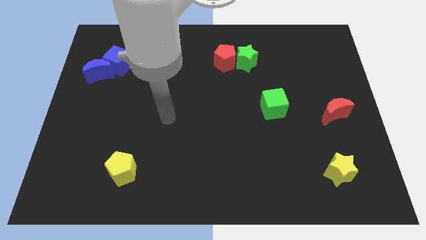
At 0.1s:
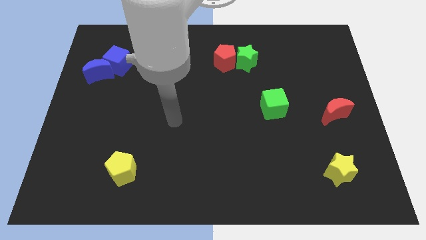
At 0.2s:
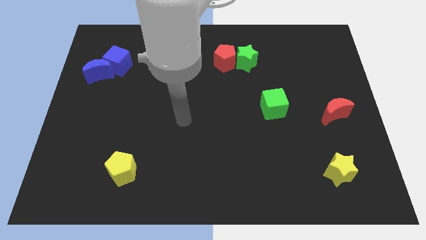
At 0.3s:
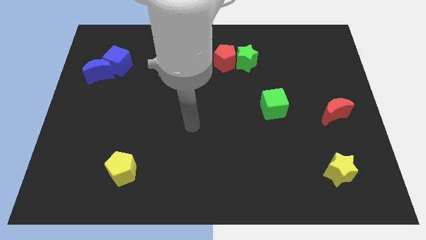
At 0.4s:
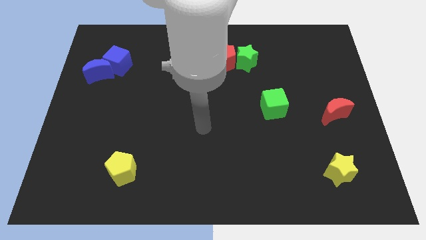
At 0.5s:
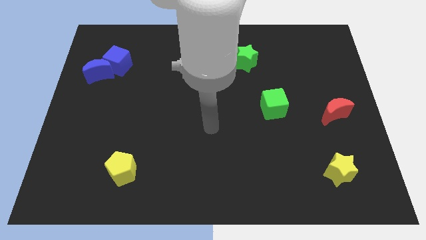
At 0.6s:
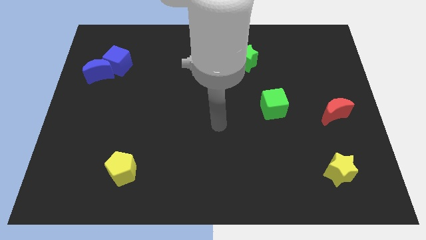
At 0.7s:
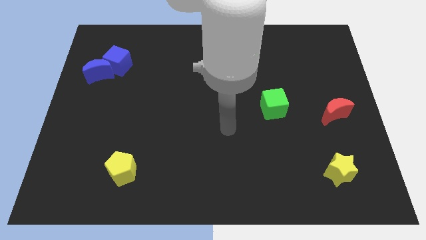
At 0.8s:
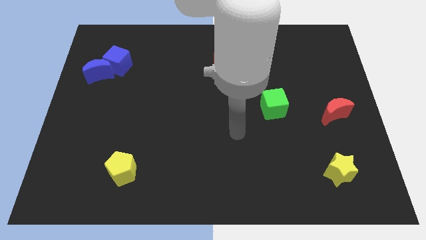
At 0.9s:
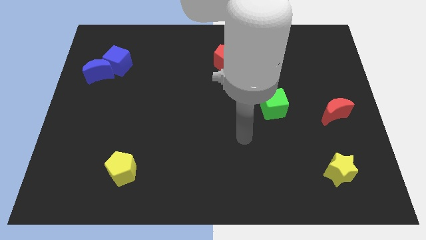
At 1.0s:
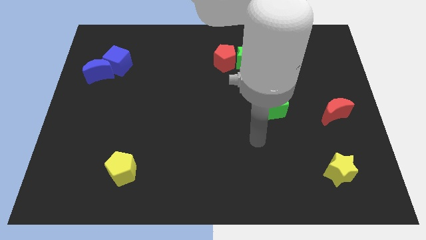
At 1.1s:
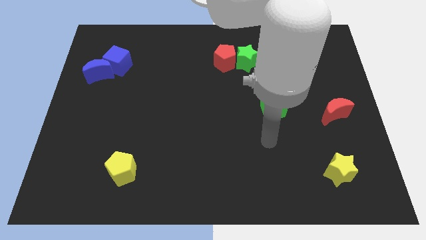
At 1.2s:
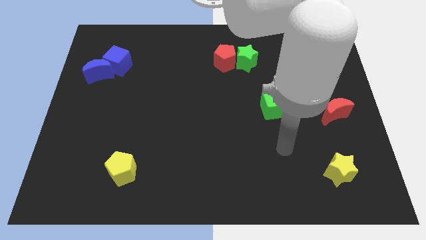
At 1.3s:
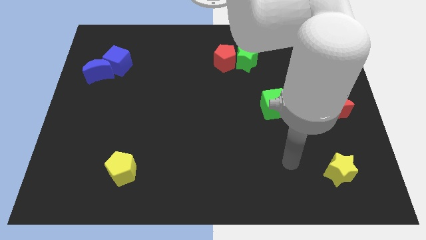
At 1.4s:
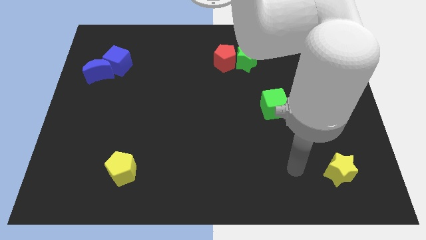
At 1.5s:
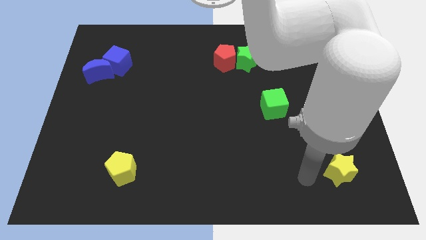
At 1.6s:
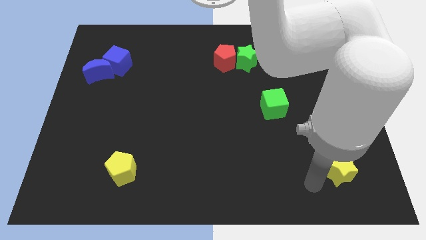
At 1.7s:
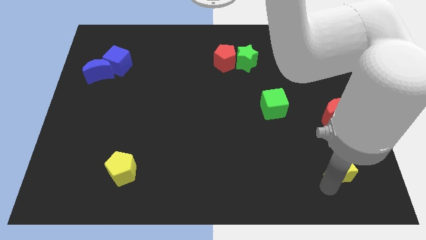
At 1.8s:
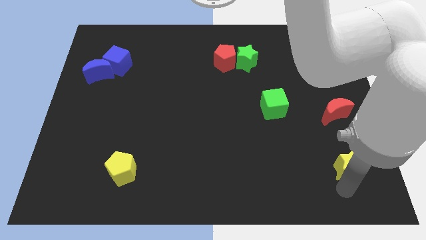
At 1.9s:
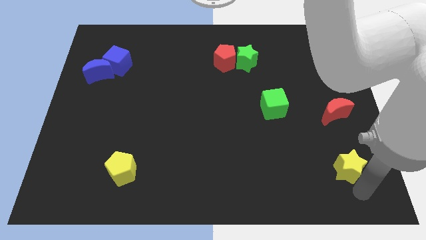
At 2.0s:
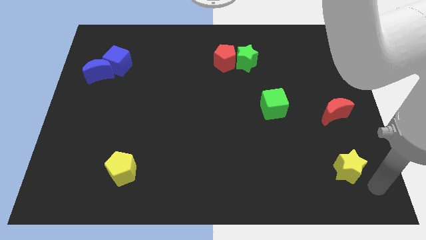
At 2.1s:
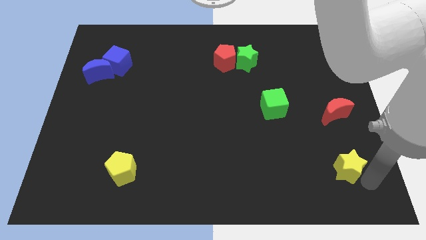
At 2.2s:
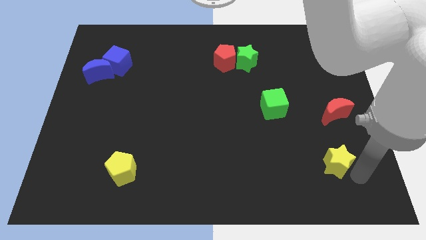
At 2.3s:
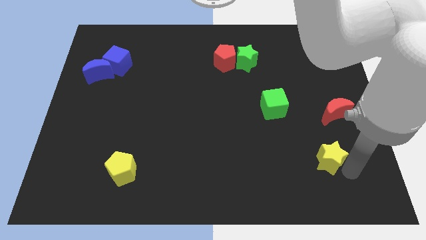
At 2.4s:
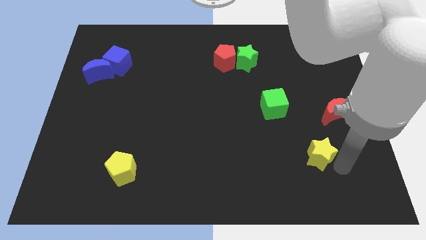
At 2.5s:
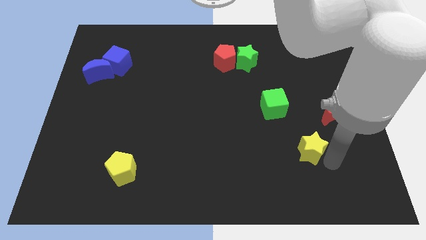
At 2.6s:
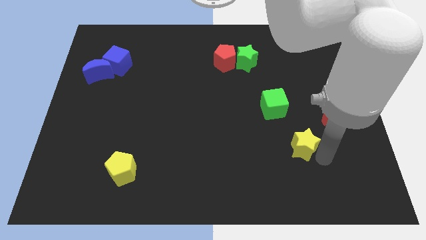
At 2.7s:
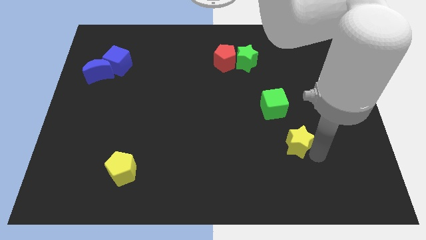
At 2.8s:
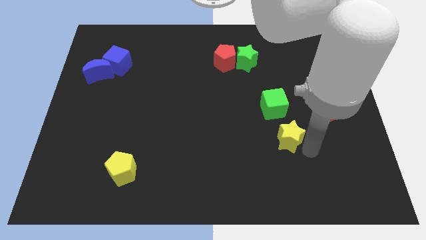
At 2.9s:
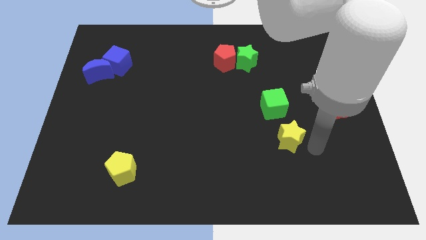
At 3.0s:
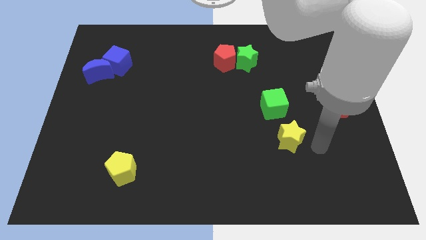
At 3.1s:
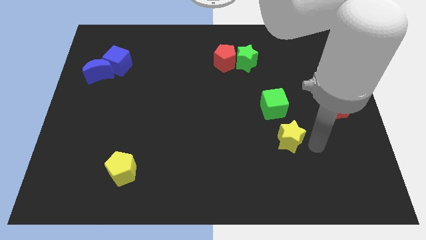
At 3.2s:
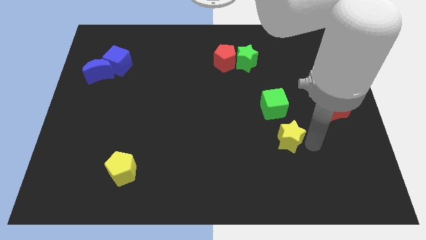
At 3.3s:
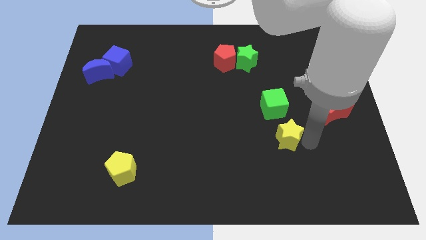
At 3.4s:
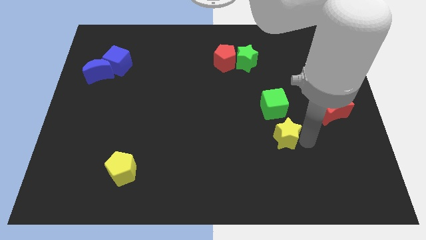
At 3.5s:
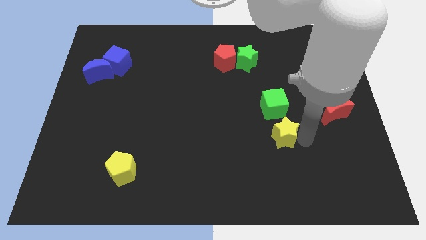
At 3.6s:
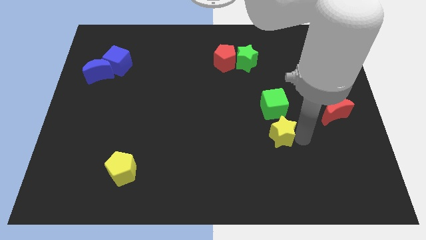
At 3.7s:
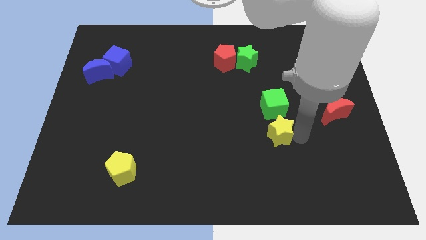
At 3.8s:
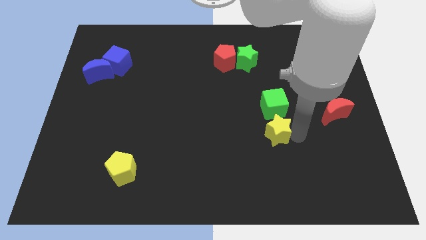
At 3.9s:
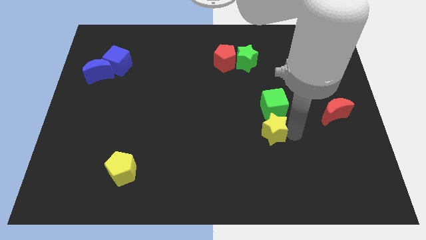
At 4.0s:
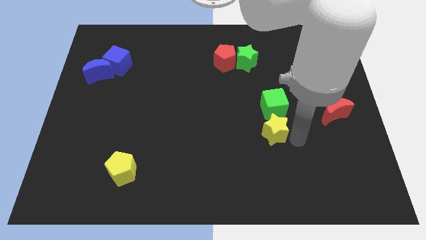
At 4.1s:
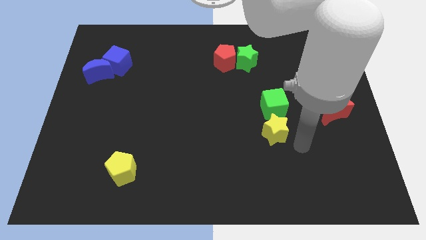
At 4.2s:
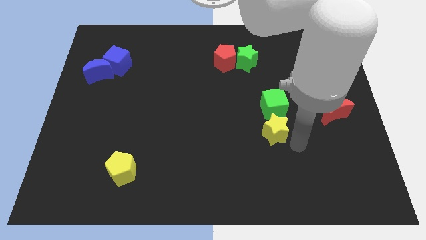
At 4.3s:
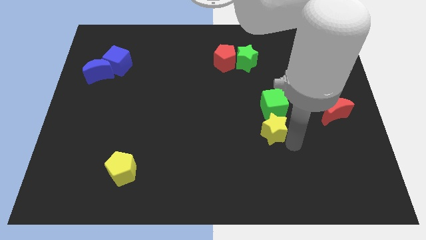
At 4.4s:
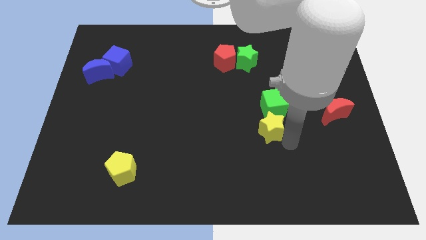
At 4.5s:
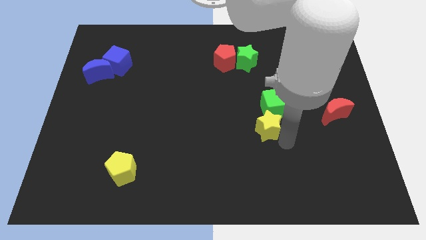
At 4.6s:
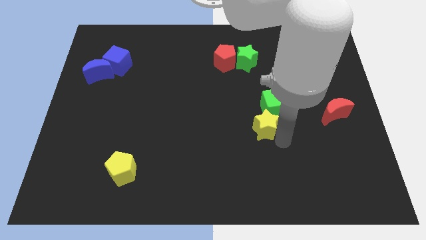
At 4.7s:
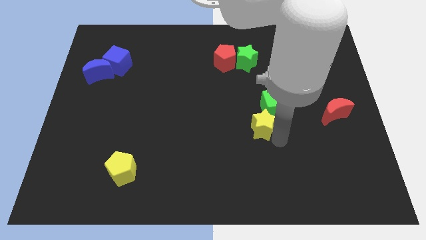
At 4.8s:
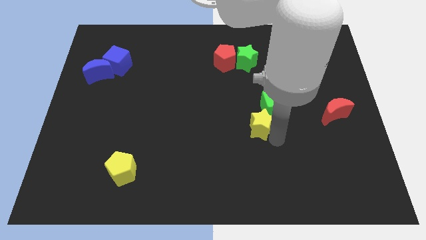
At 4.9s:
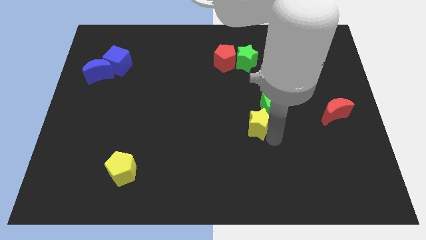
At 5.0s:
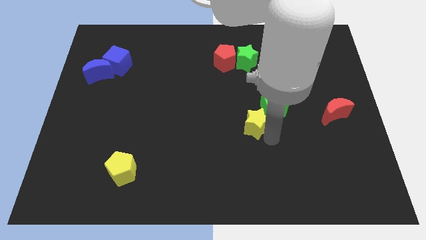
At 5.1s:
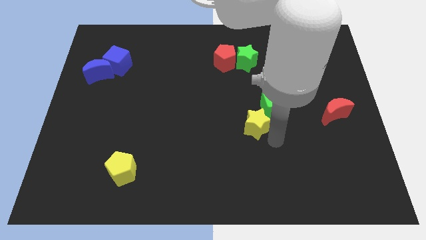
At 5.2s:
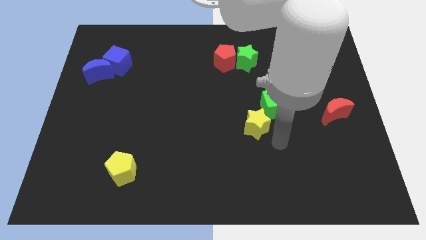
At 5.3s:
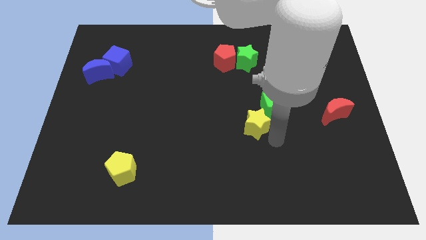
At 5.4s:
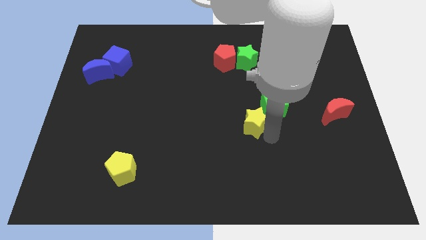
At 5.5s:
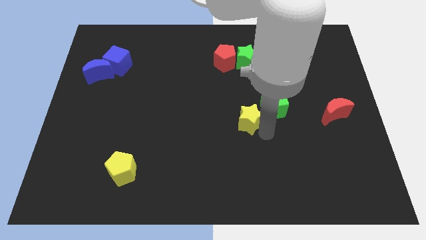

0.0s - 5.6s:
slide the yellow star upwards and then to the left

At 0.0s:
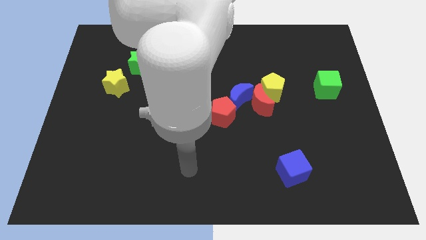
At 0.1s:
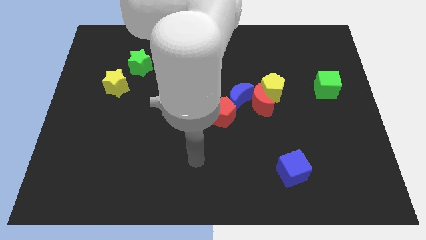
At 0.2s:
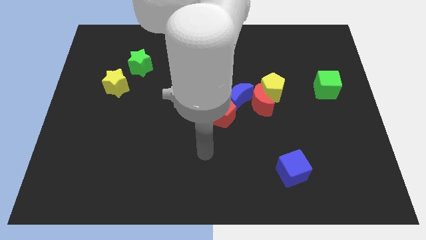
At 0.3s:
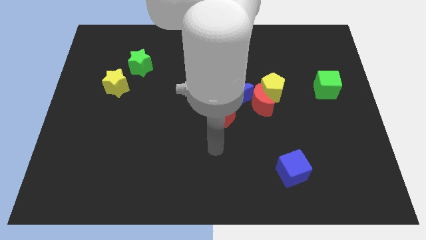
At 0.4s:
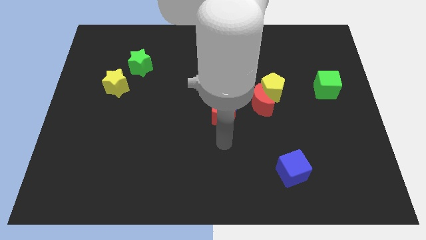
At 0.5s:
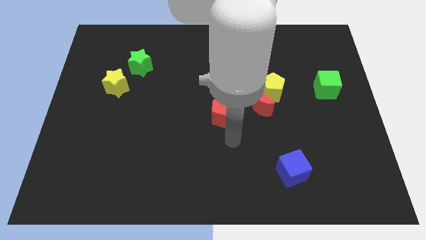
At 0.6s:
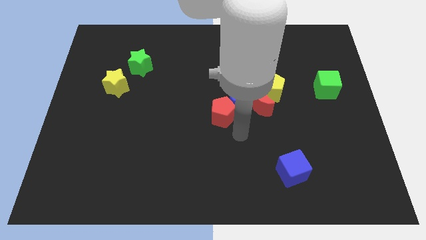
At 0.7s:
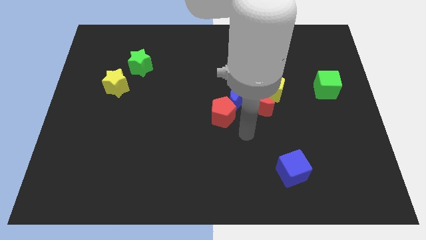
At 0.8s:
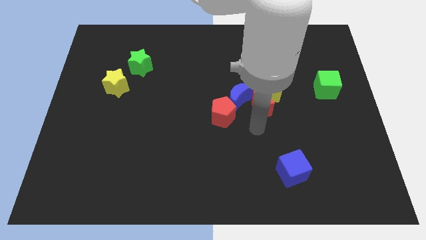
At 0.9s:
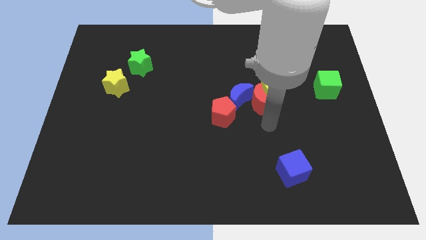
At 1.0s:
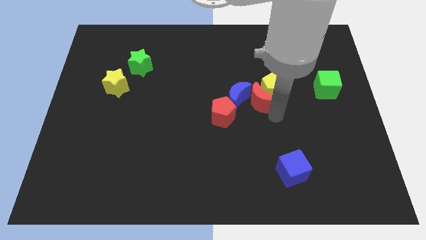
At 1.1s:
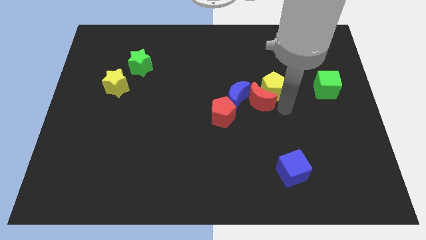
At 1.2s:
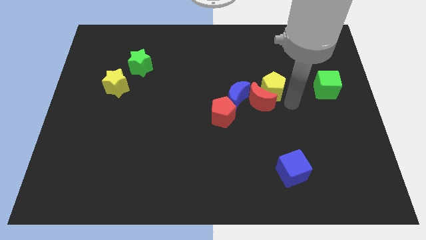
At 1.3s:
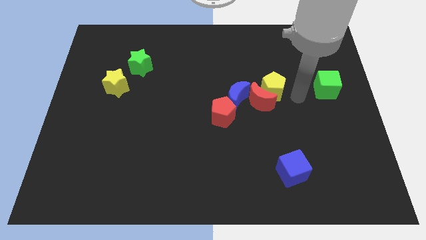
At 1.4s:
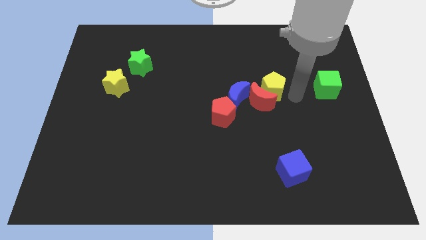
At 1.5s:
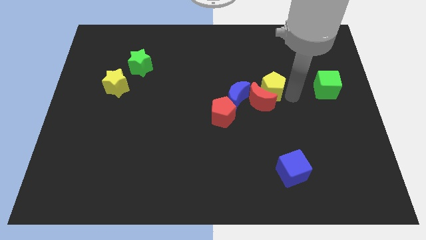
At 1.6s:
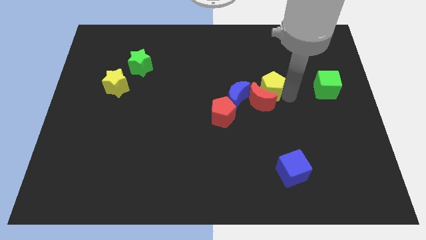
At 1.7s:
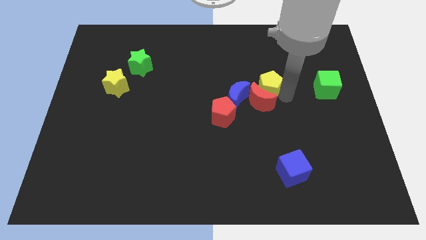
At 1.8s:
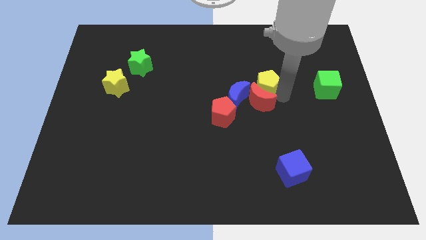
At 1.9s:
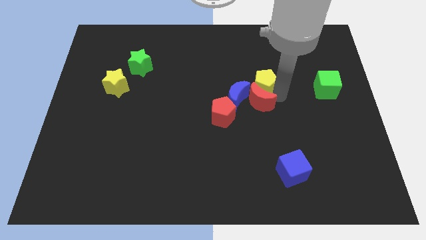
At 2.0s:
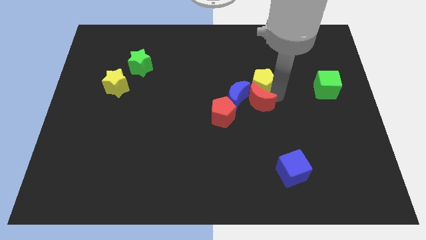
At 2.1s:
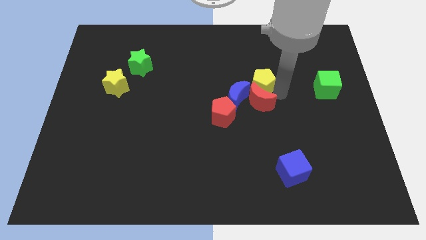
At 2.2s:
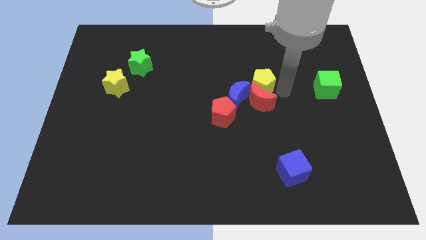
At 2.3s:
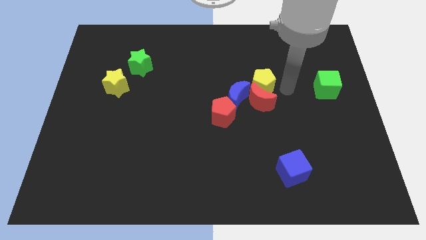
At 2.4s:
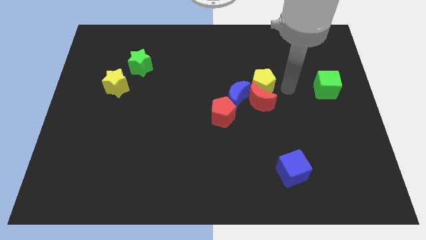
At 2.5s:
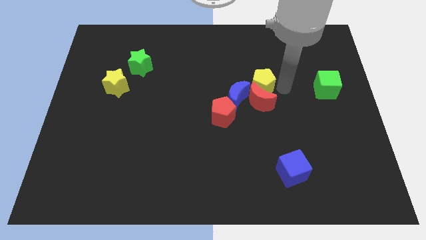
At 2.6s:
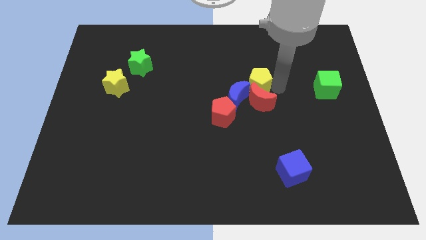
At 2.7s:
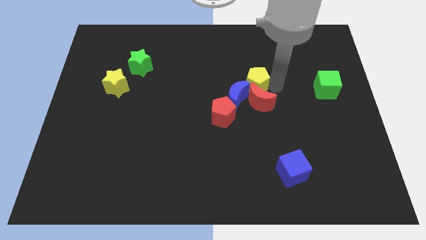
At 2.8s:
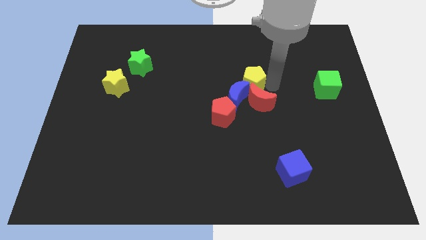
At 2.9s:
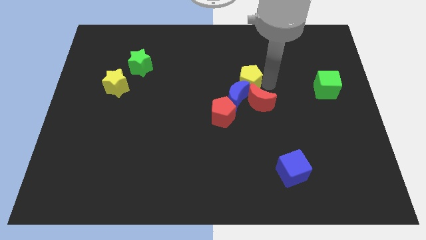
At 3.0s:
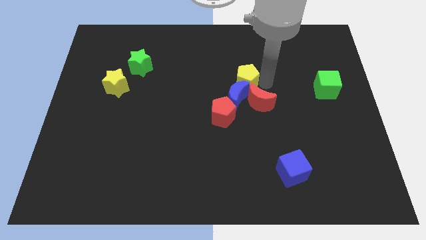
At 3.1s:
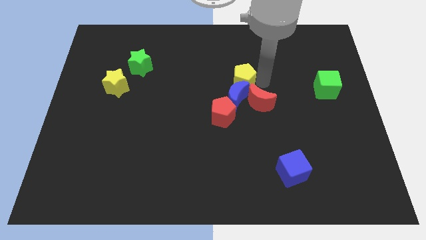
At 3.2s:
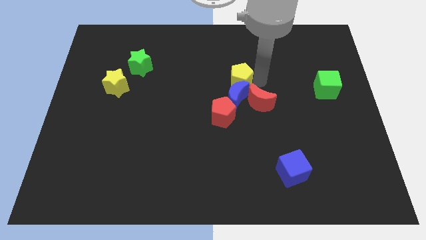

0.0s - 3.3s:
slide the yellow pentagon a bit left
